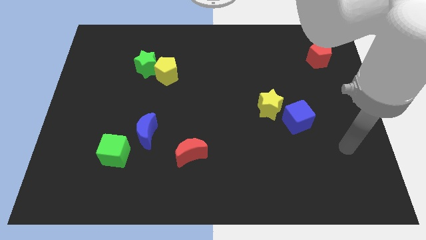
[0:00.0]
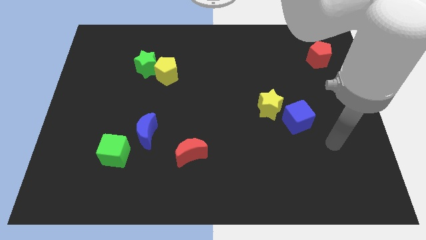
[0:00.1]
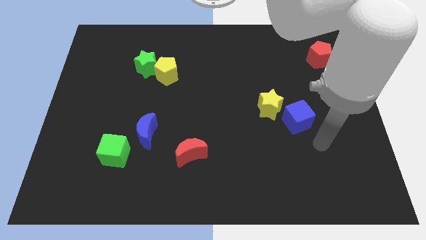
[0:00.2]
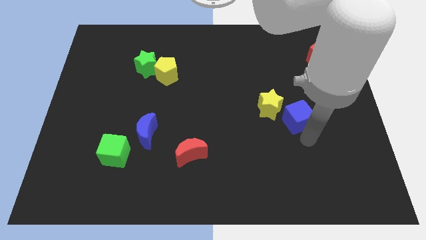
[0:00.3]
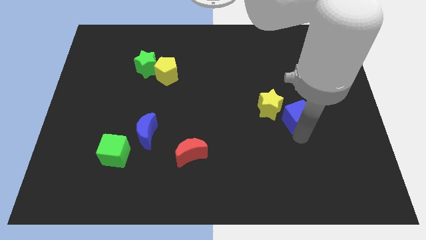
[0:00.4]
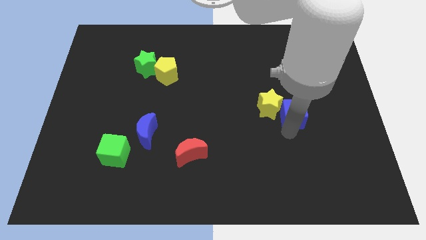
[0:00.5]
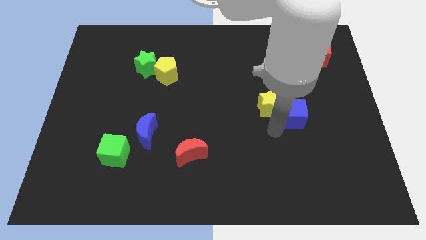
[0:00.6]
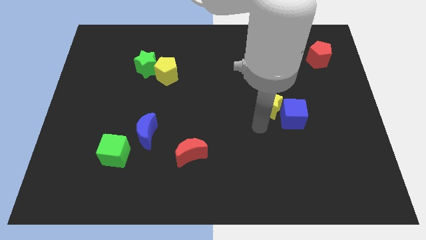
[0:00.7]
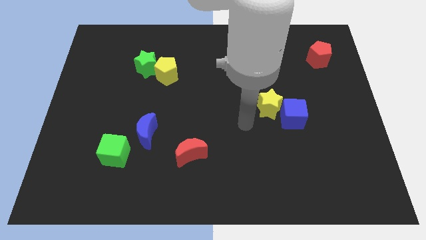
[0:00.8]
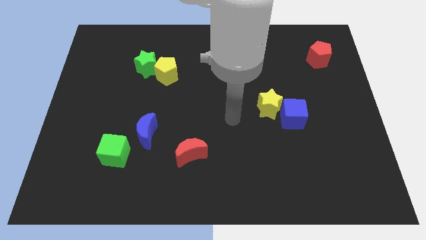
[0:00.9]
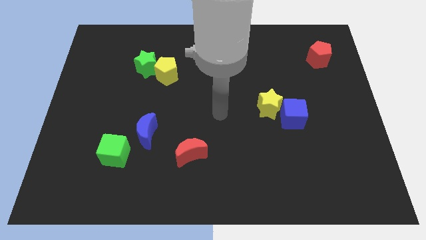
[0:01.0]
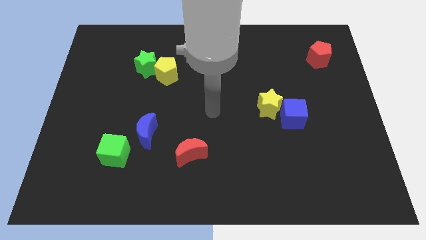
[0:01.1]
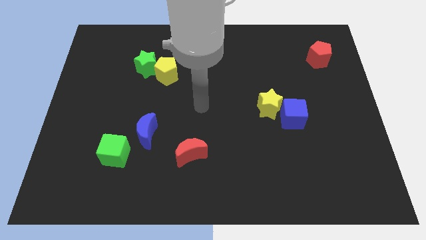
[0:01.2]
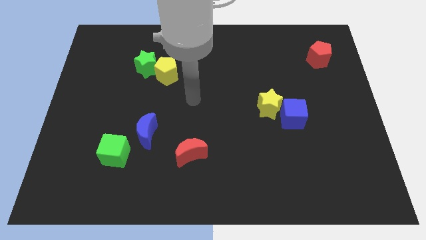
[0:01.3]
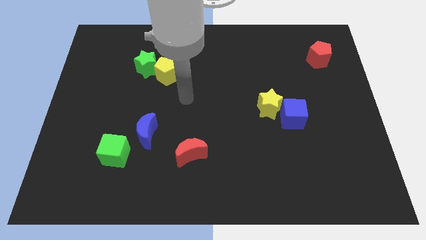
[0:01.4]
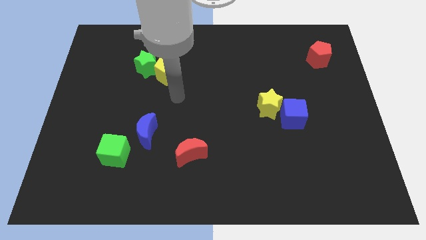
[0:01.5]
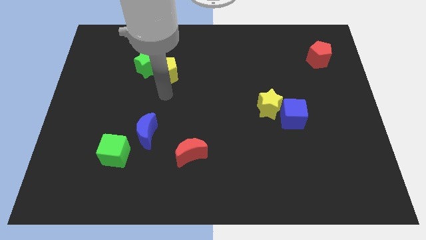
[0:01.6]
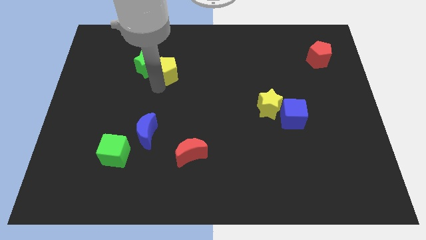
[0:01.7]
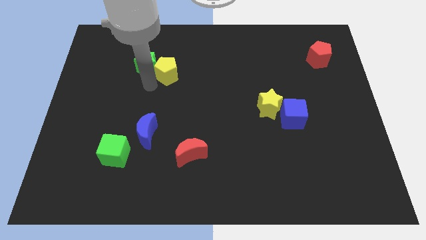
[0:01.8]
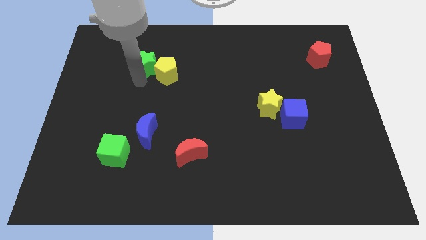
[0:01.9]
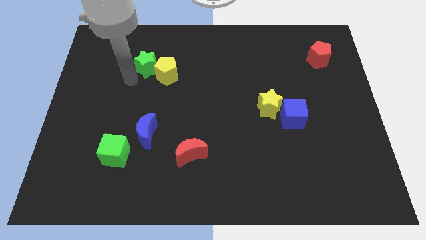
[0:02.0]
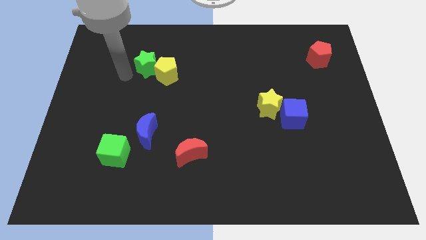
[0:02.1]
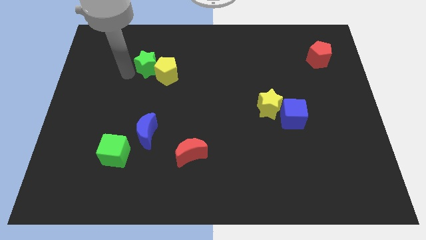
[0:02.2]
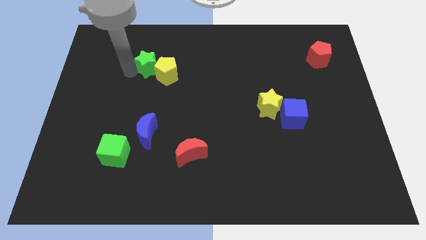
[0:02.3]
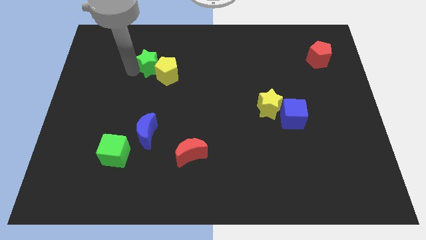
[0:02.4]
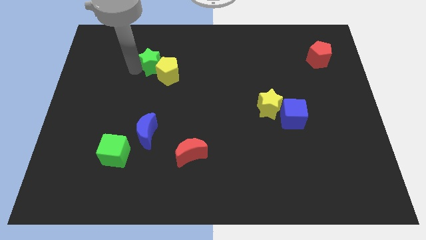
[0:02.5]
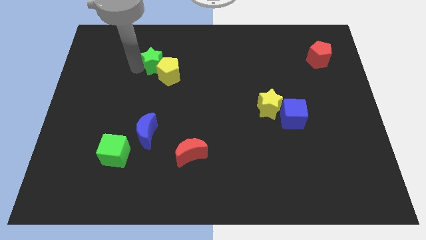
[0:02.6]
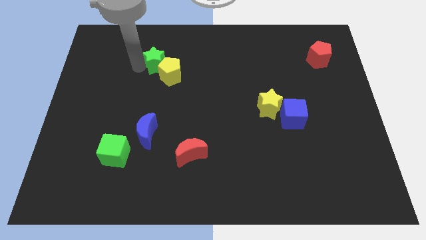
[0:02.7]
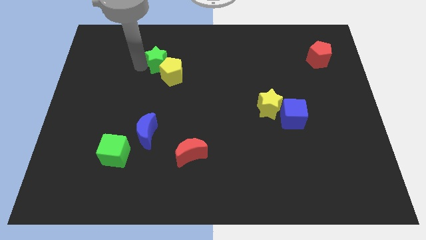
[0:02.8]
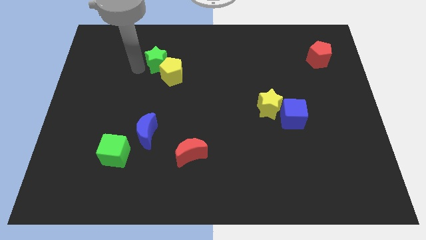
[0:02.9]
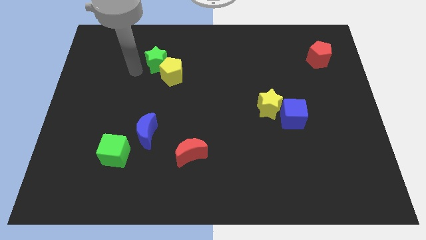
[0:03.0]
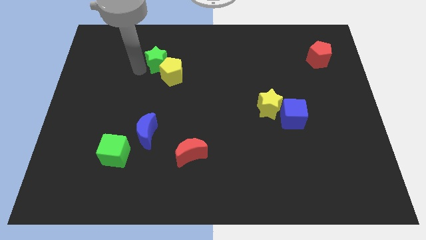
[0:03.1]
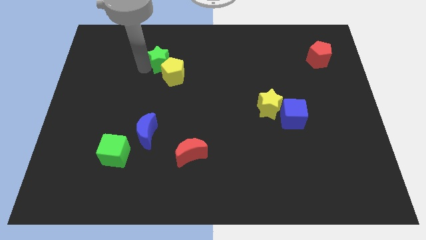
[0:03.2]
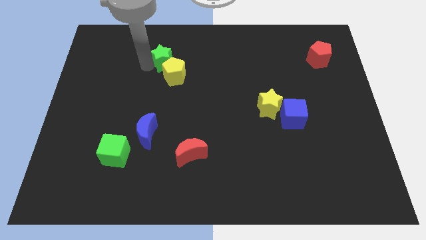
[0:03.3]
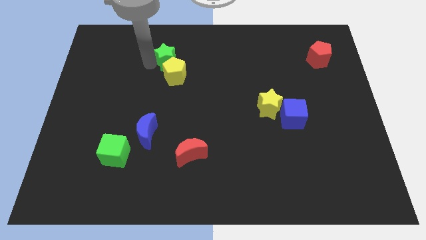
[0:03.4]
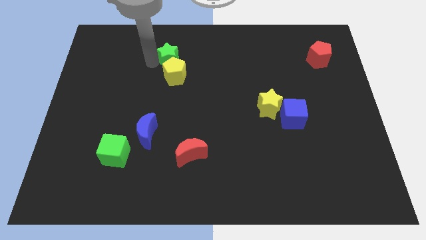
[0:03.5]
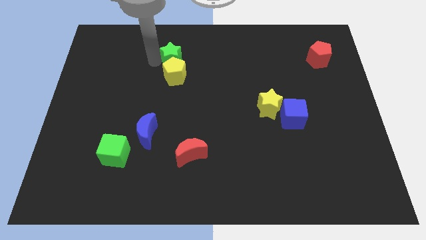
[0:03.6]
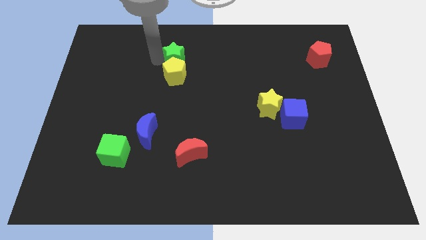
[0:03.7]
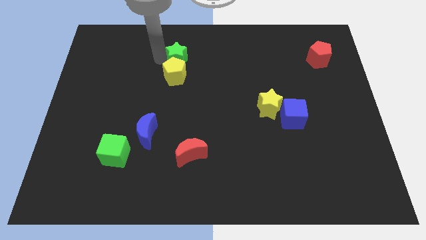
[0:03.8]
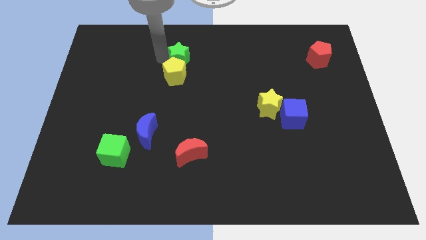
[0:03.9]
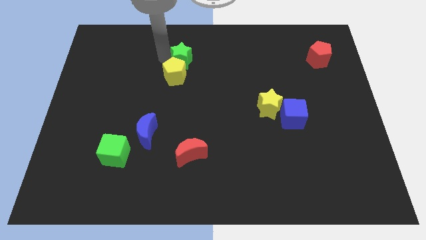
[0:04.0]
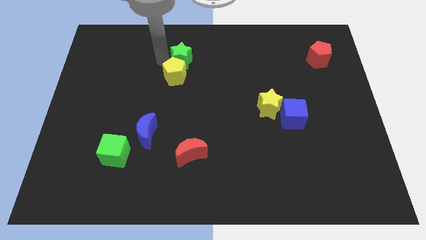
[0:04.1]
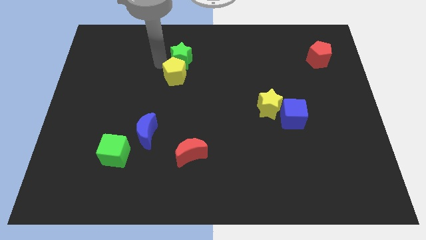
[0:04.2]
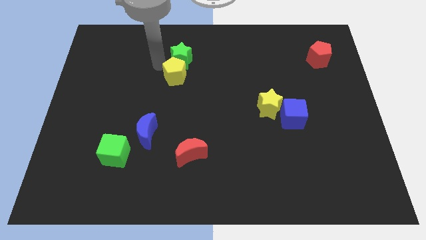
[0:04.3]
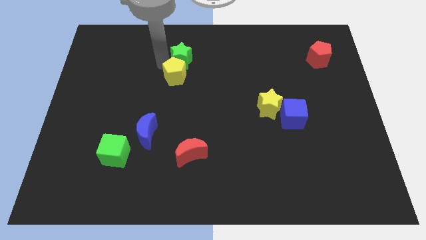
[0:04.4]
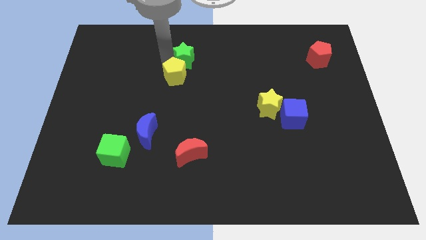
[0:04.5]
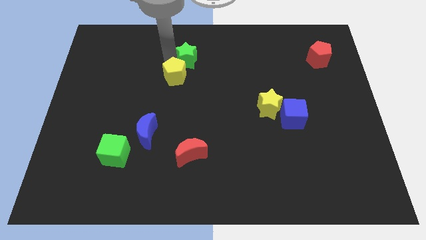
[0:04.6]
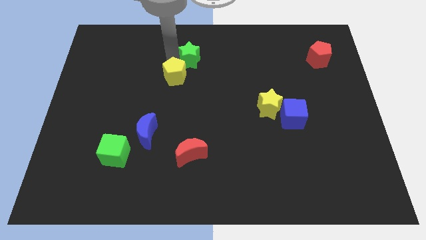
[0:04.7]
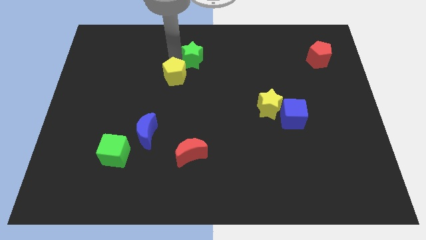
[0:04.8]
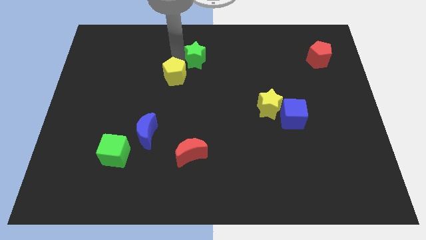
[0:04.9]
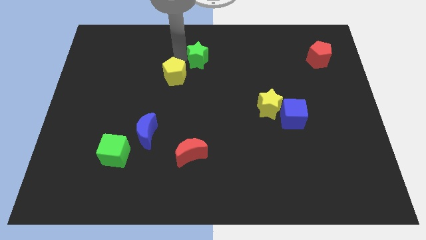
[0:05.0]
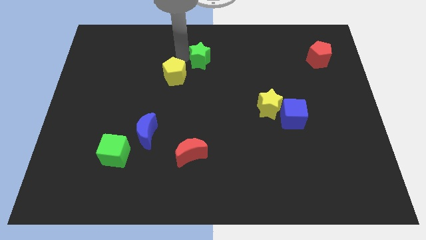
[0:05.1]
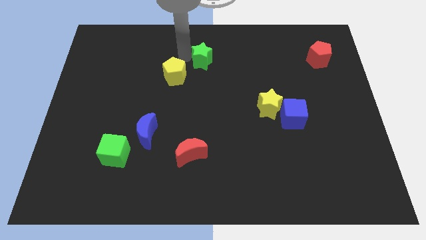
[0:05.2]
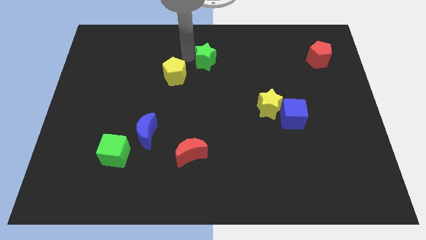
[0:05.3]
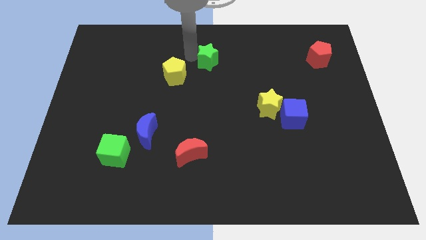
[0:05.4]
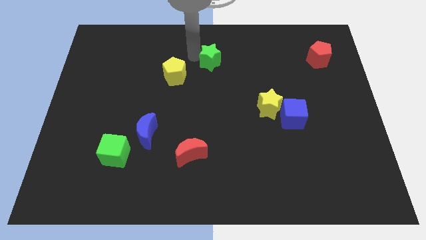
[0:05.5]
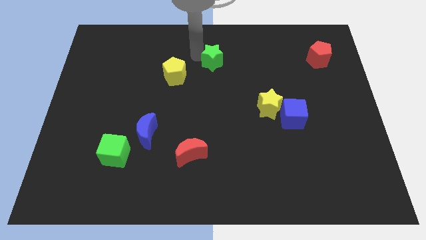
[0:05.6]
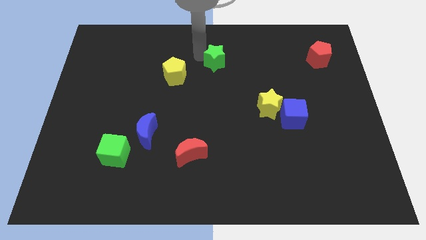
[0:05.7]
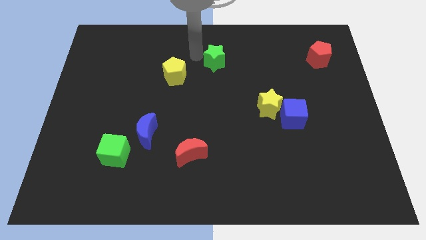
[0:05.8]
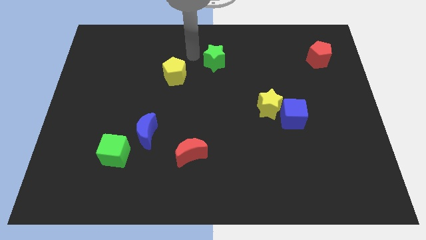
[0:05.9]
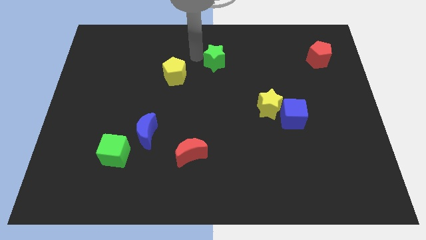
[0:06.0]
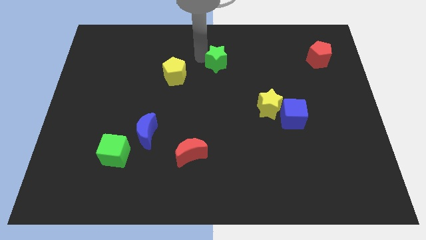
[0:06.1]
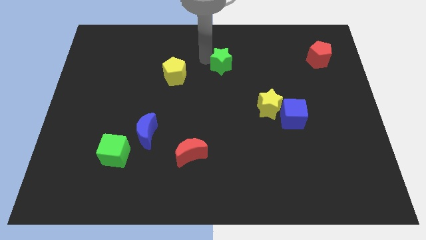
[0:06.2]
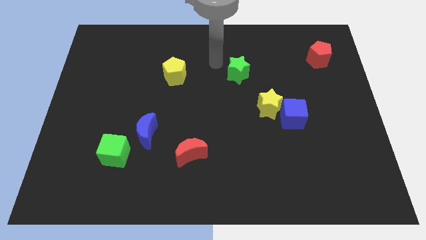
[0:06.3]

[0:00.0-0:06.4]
move the green star to the right

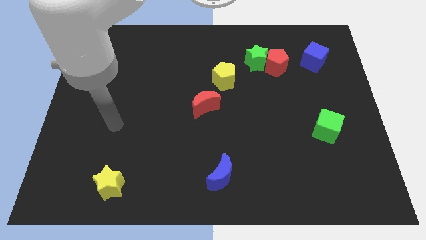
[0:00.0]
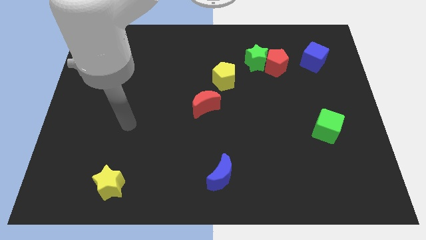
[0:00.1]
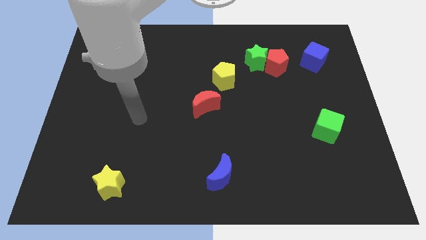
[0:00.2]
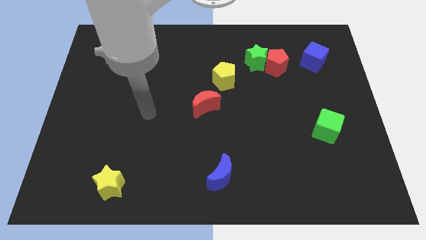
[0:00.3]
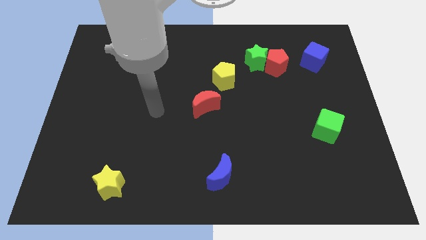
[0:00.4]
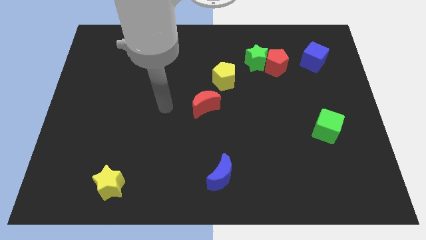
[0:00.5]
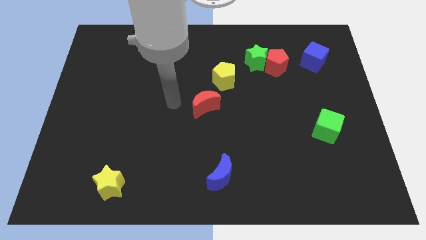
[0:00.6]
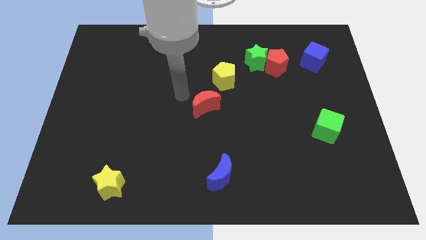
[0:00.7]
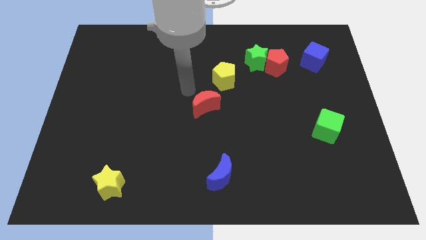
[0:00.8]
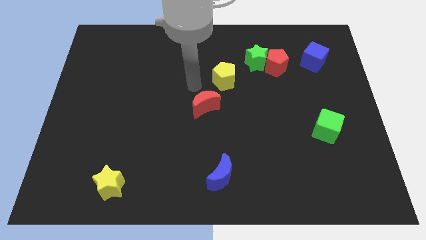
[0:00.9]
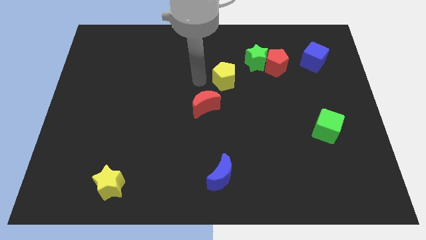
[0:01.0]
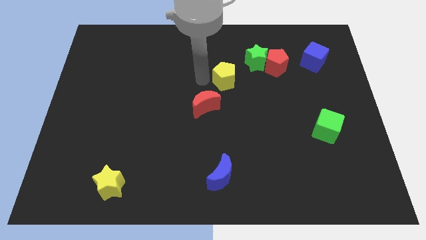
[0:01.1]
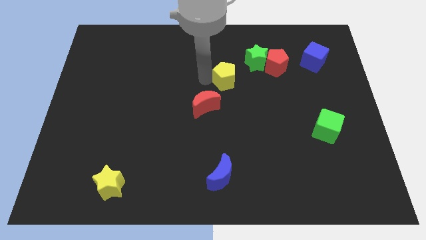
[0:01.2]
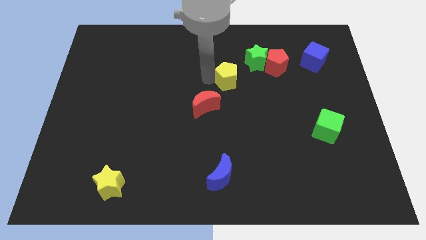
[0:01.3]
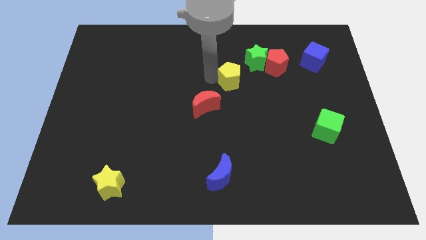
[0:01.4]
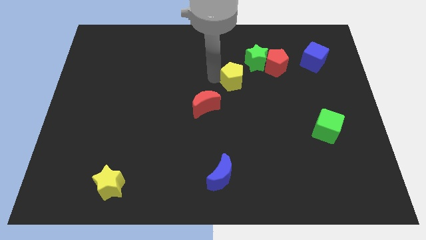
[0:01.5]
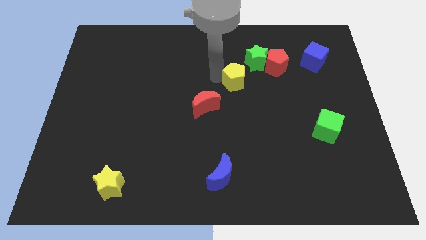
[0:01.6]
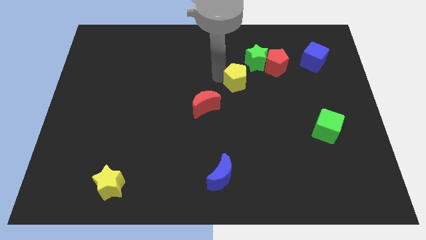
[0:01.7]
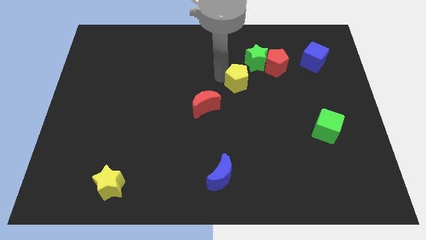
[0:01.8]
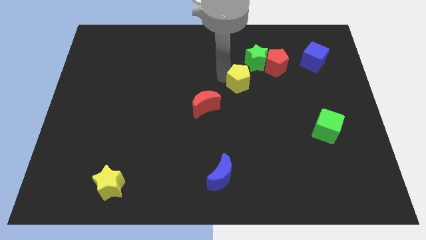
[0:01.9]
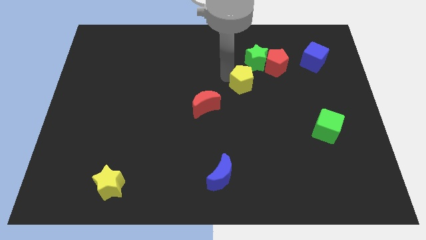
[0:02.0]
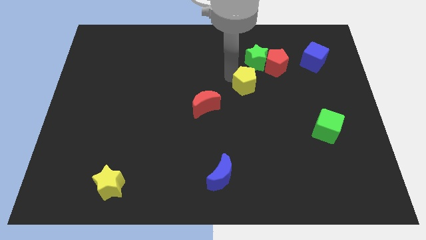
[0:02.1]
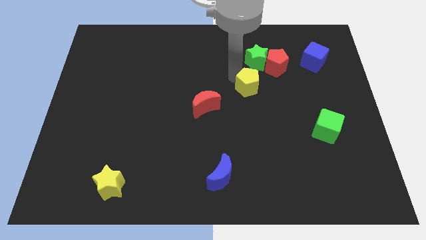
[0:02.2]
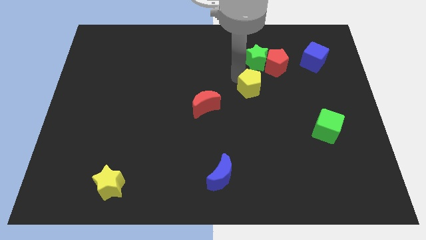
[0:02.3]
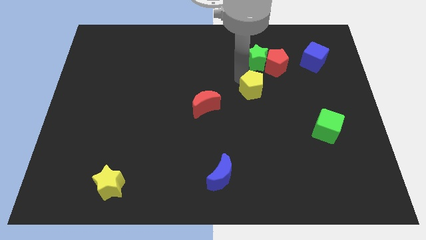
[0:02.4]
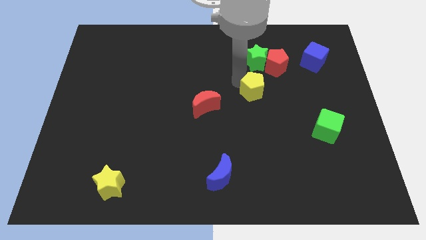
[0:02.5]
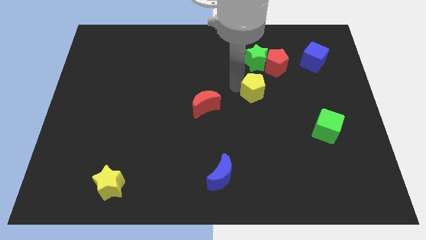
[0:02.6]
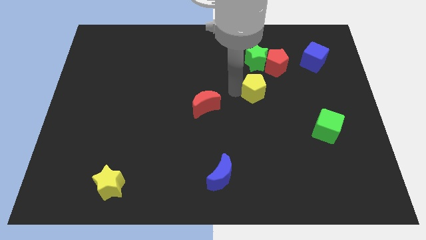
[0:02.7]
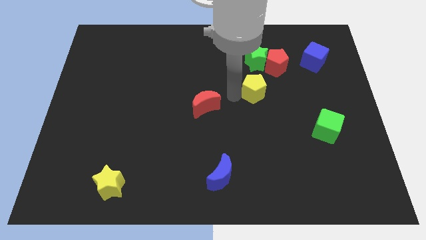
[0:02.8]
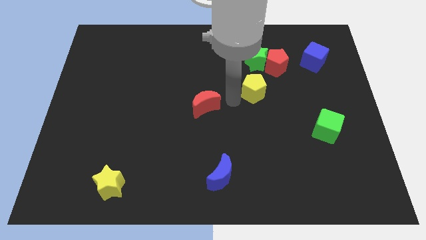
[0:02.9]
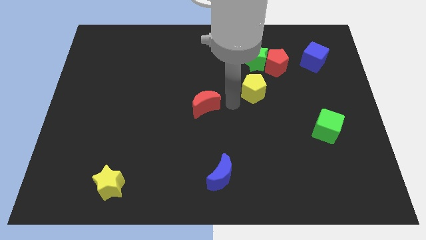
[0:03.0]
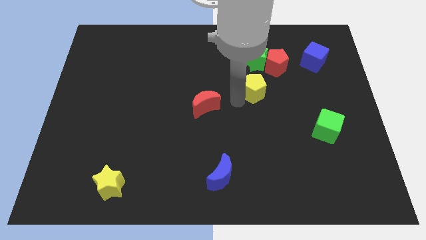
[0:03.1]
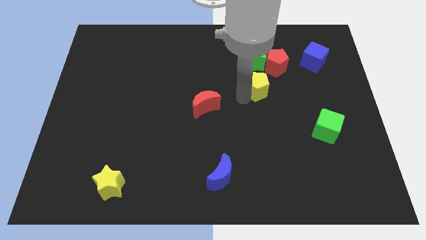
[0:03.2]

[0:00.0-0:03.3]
slide the yellow pentagon right slightly
